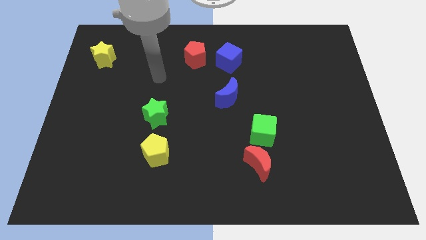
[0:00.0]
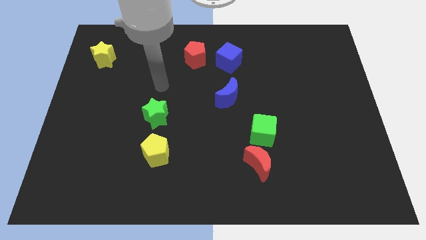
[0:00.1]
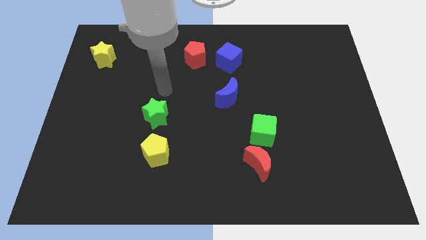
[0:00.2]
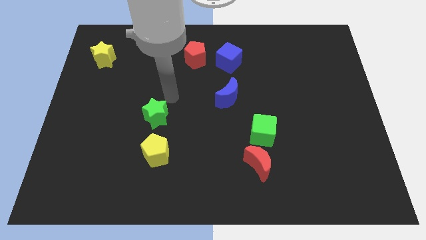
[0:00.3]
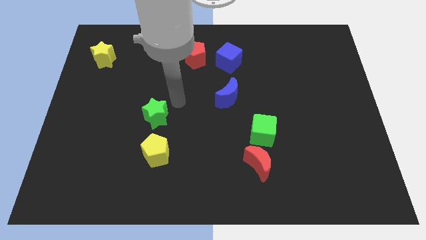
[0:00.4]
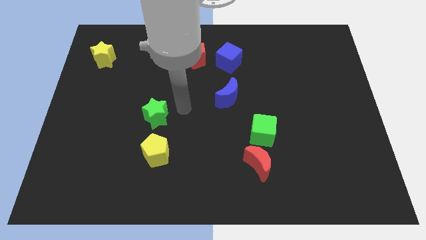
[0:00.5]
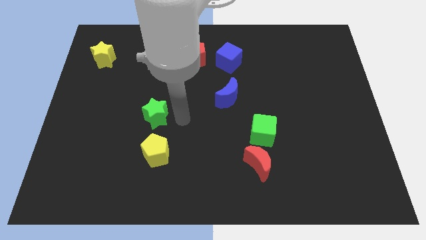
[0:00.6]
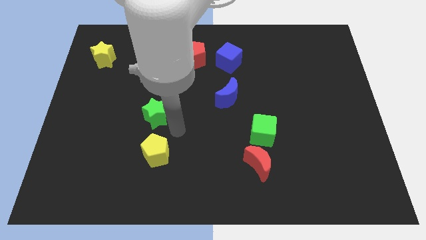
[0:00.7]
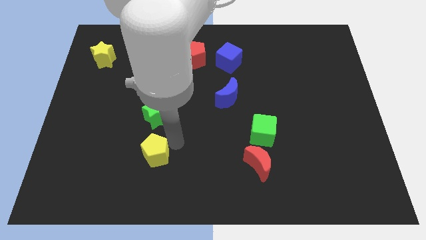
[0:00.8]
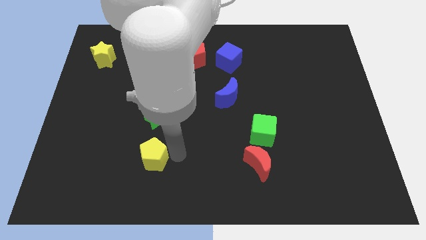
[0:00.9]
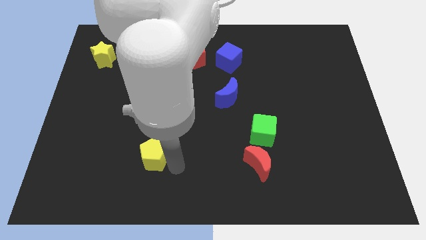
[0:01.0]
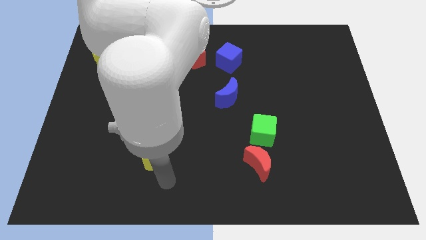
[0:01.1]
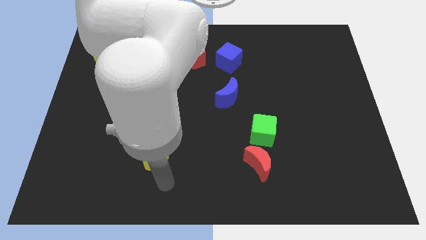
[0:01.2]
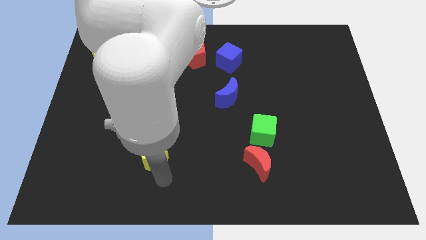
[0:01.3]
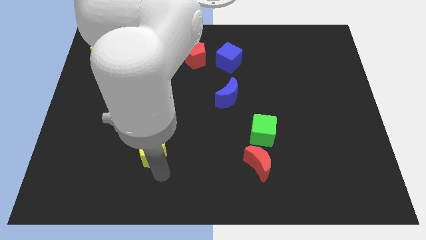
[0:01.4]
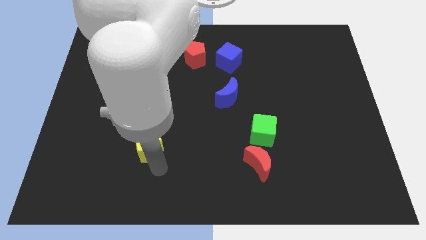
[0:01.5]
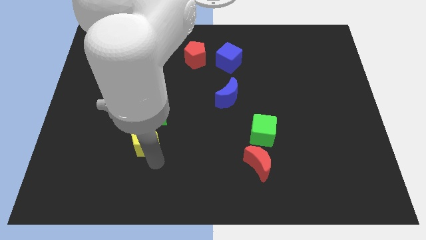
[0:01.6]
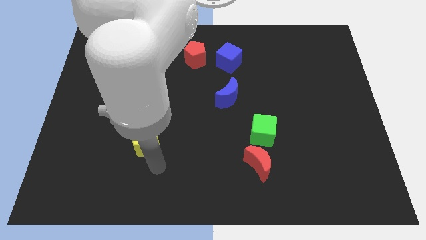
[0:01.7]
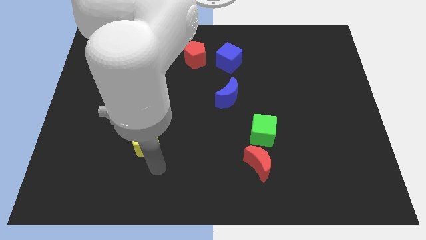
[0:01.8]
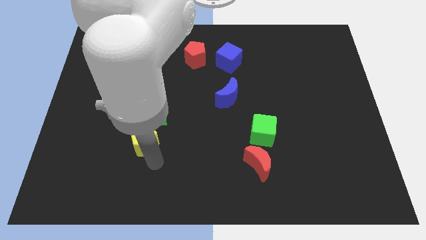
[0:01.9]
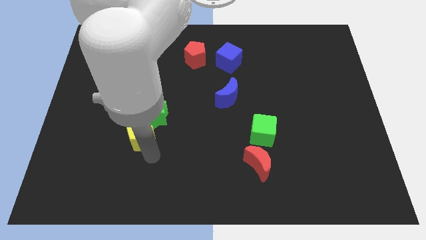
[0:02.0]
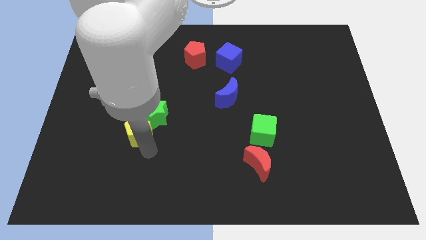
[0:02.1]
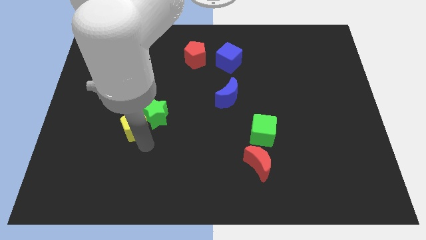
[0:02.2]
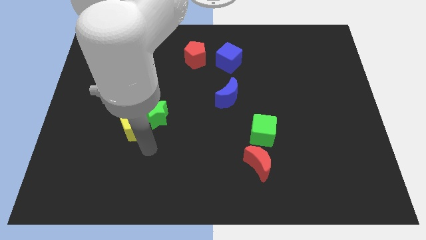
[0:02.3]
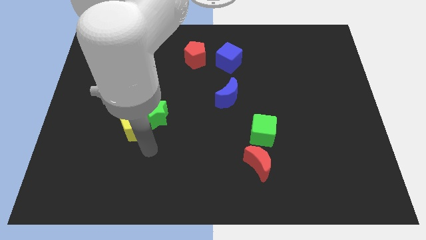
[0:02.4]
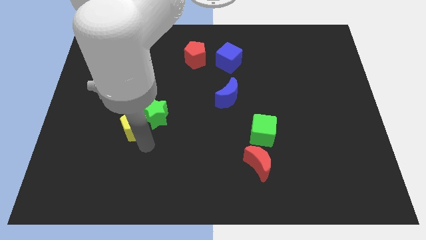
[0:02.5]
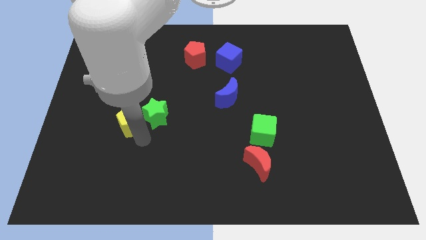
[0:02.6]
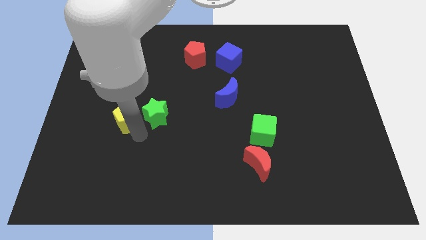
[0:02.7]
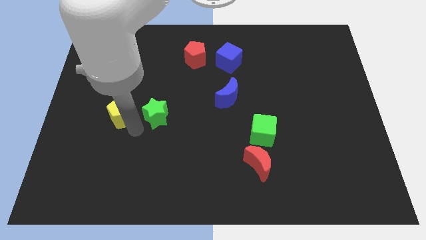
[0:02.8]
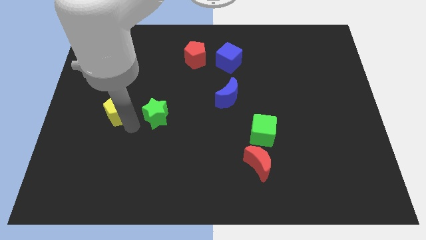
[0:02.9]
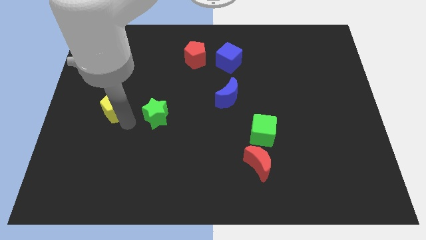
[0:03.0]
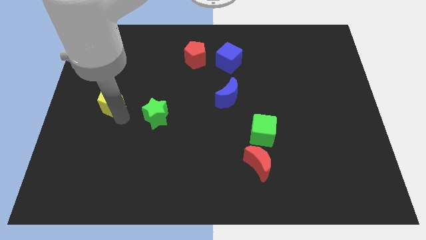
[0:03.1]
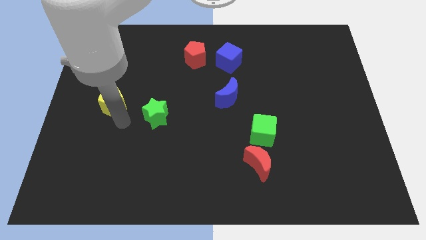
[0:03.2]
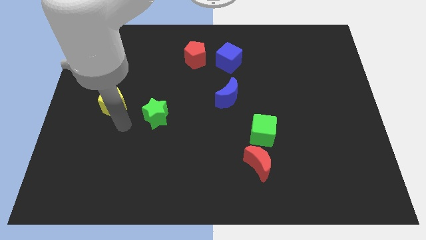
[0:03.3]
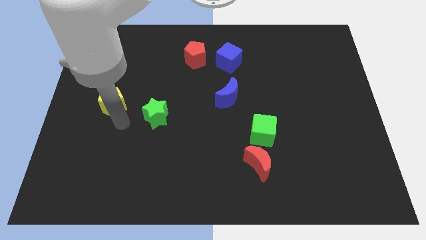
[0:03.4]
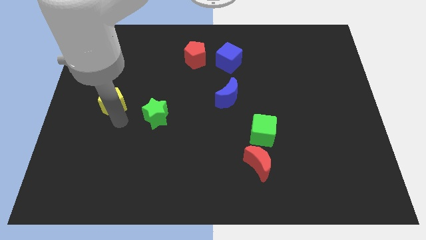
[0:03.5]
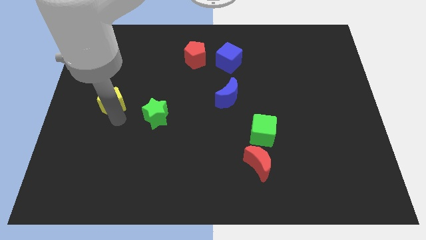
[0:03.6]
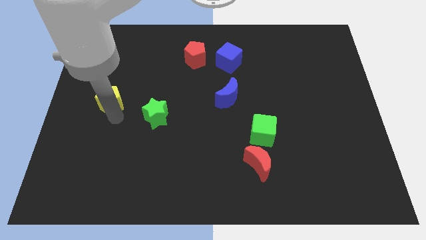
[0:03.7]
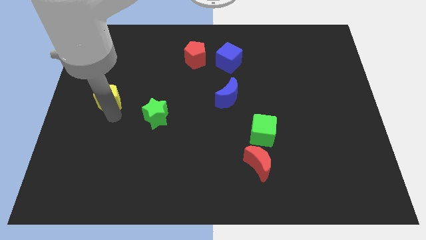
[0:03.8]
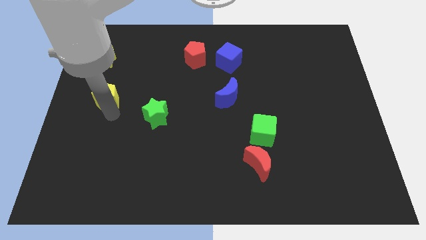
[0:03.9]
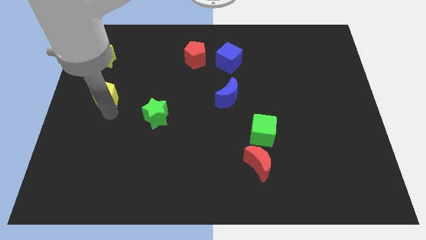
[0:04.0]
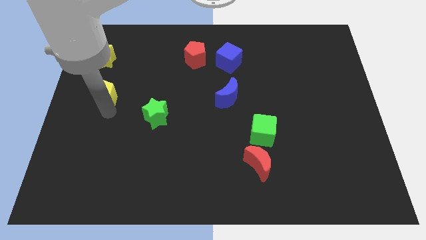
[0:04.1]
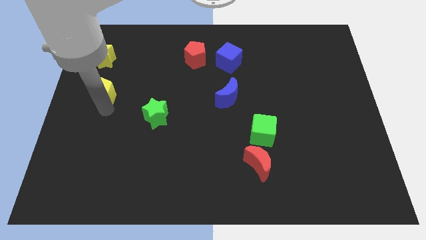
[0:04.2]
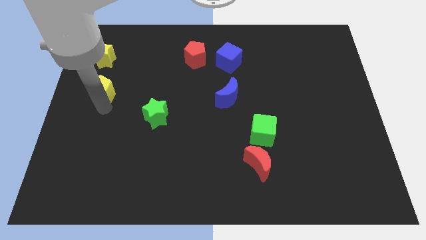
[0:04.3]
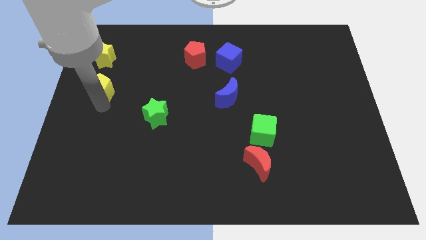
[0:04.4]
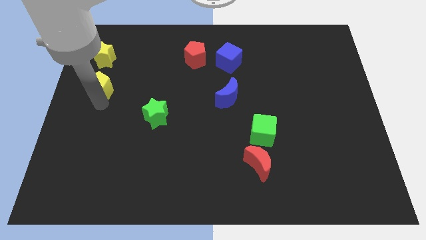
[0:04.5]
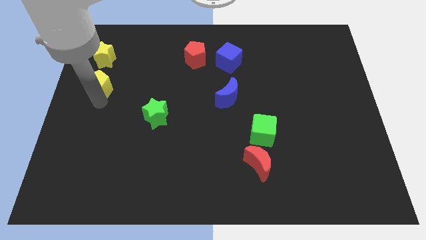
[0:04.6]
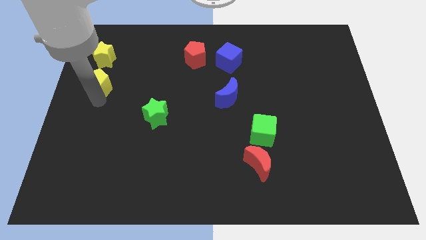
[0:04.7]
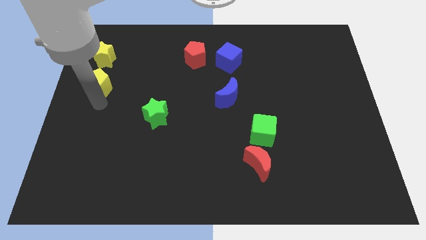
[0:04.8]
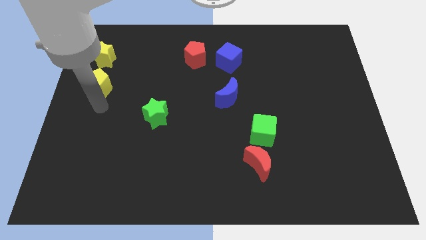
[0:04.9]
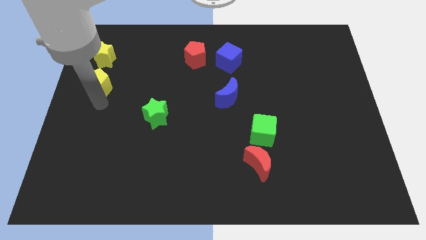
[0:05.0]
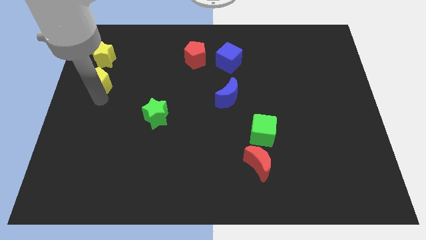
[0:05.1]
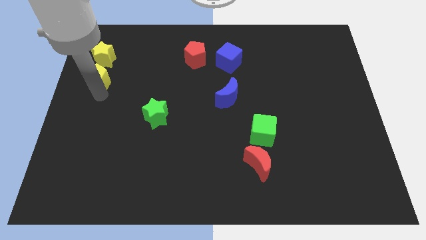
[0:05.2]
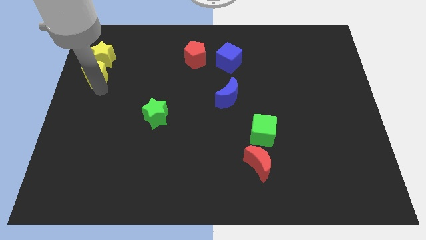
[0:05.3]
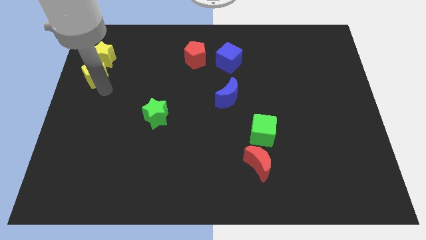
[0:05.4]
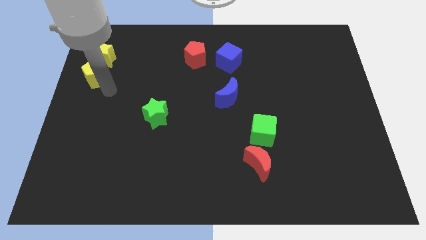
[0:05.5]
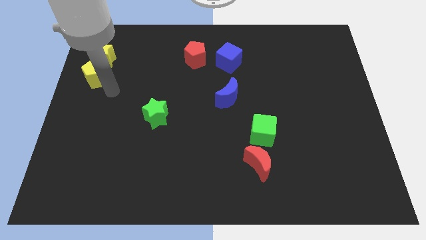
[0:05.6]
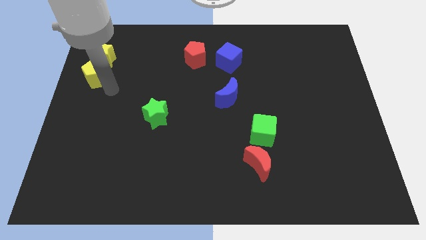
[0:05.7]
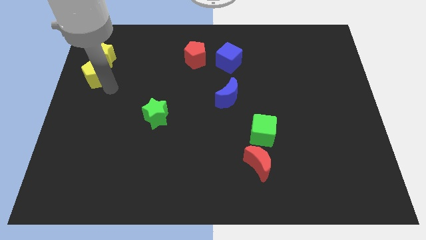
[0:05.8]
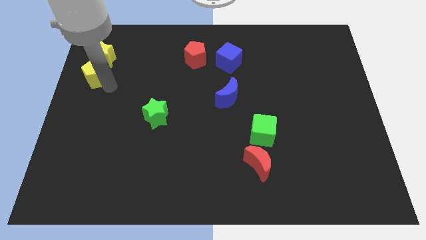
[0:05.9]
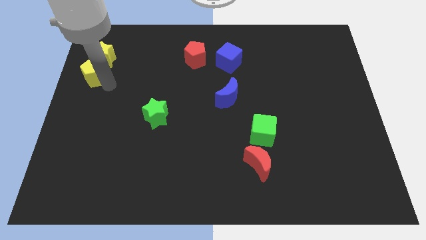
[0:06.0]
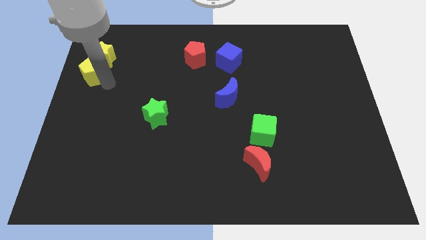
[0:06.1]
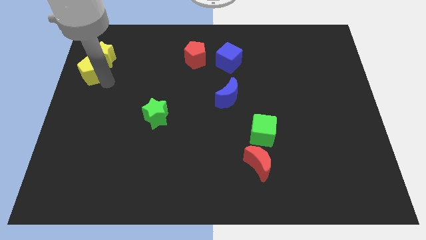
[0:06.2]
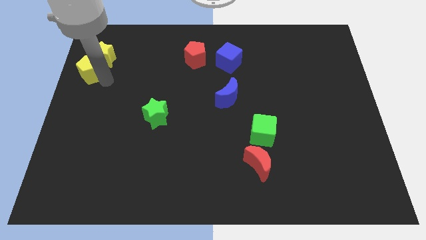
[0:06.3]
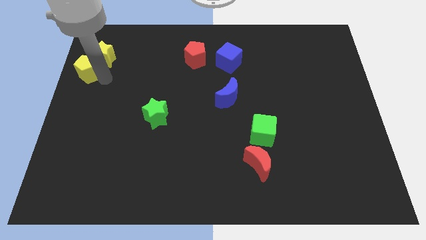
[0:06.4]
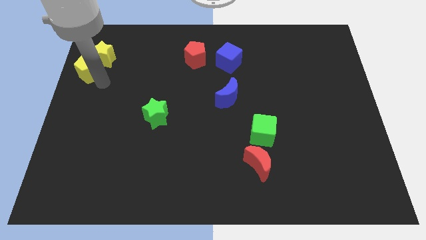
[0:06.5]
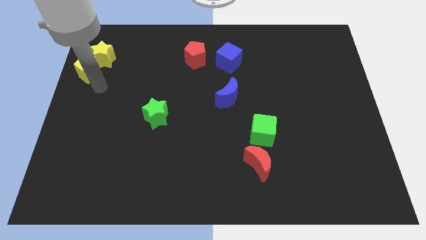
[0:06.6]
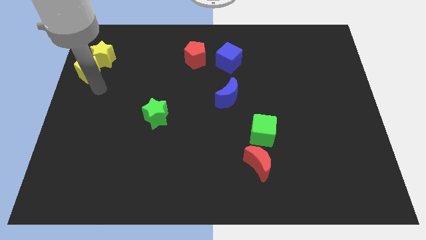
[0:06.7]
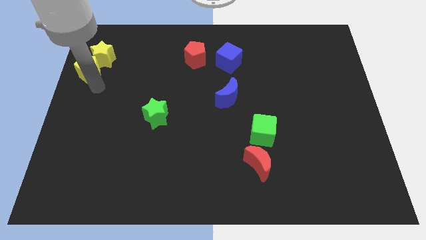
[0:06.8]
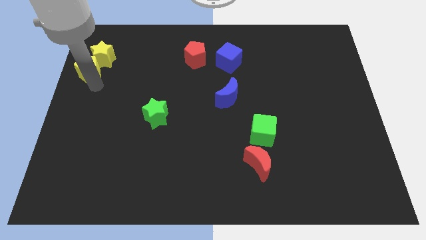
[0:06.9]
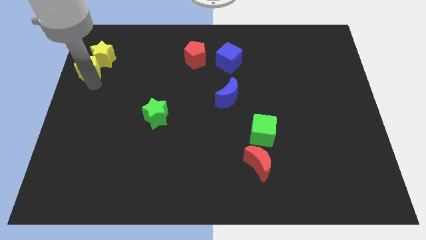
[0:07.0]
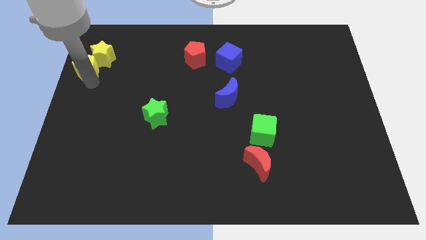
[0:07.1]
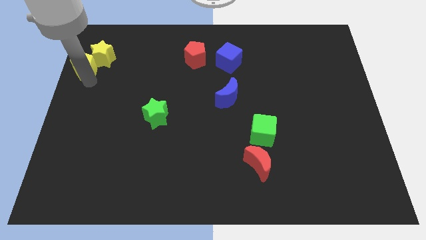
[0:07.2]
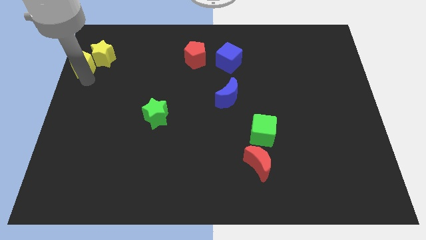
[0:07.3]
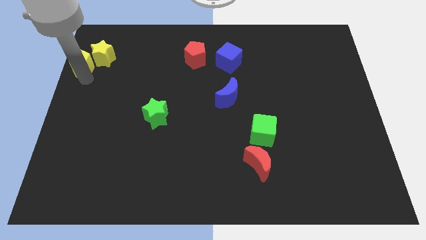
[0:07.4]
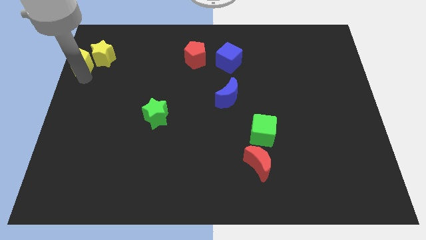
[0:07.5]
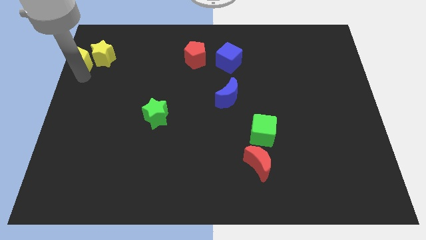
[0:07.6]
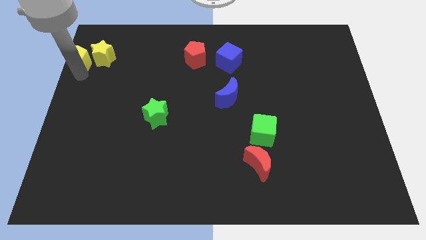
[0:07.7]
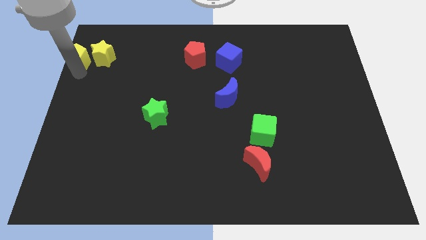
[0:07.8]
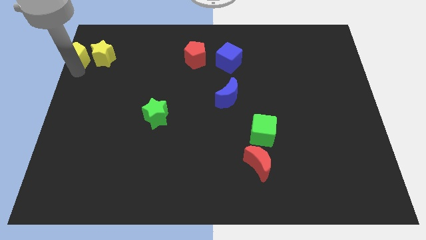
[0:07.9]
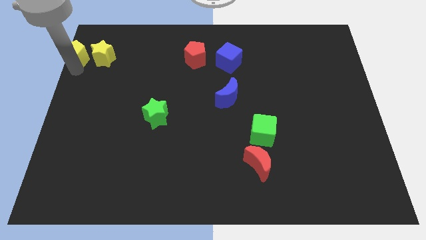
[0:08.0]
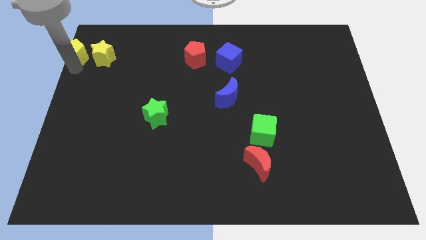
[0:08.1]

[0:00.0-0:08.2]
put the yellow pentagon to the top left corner
